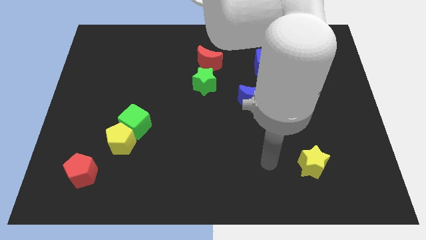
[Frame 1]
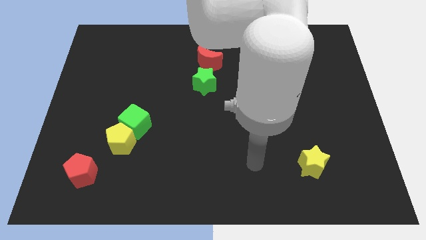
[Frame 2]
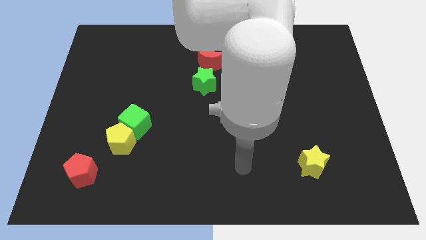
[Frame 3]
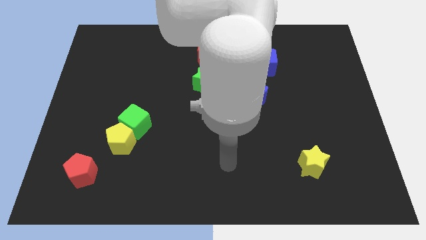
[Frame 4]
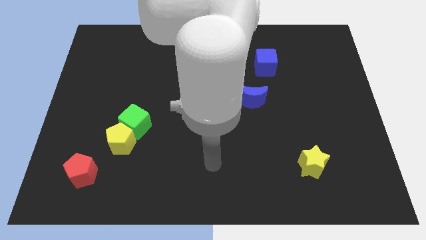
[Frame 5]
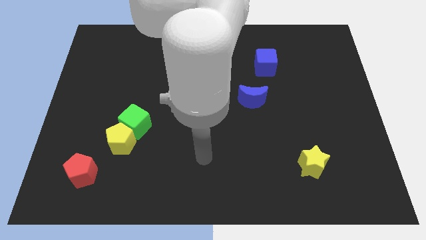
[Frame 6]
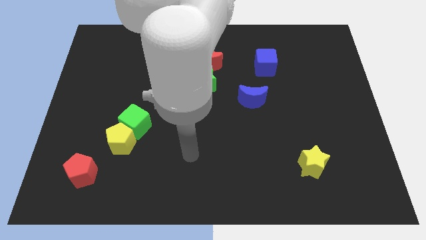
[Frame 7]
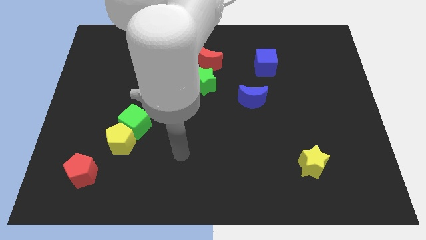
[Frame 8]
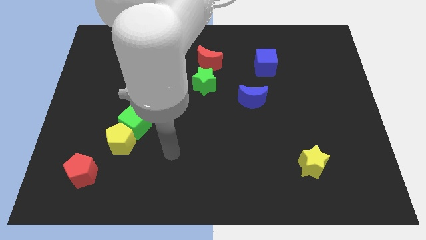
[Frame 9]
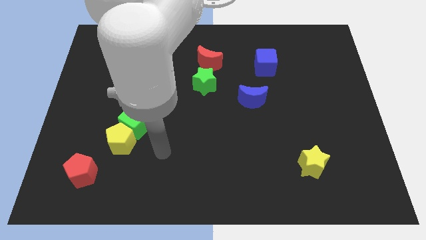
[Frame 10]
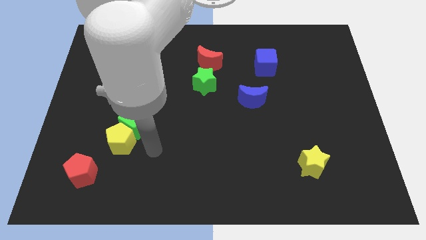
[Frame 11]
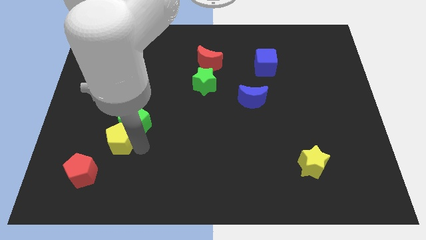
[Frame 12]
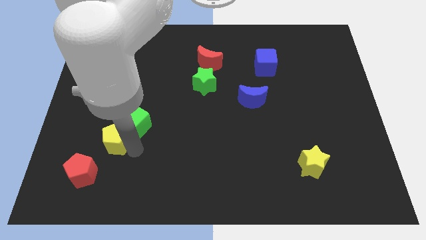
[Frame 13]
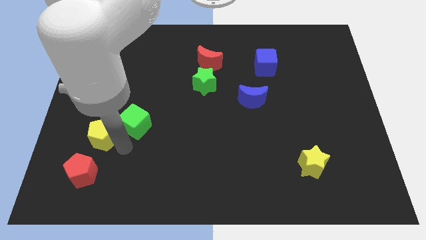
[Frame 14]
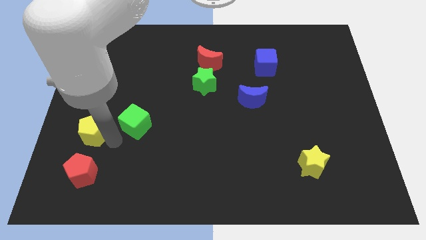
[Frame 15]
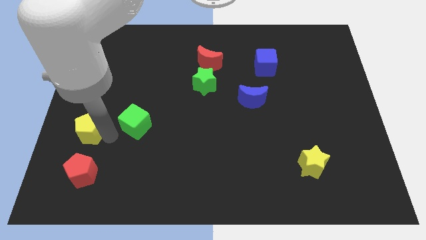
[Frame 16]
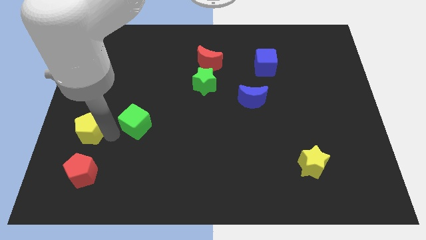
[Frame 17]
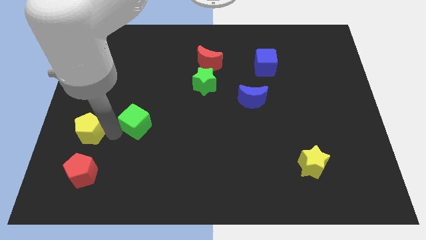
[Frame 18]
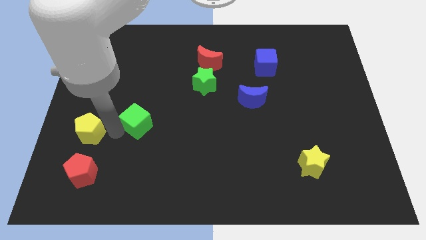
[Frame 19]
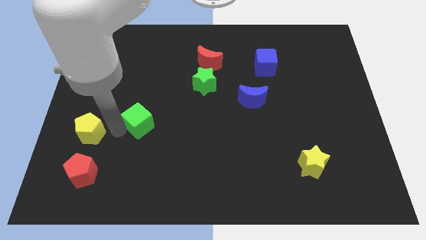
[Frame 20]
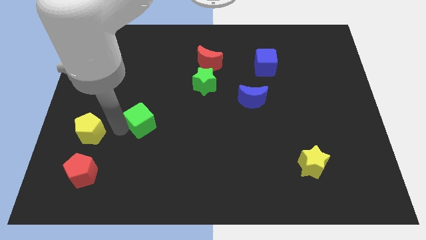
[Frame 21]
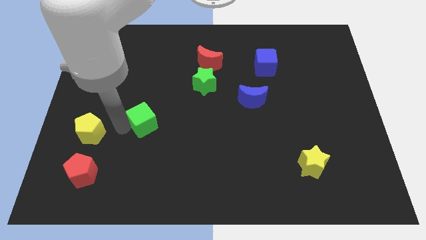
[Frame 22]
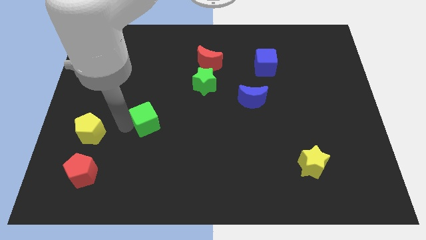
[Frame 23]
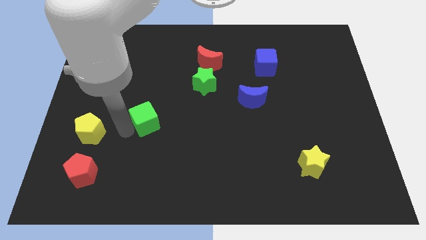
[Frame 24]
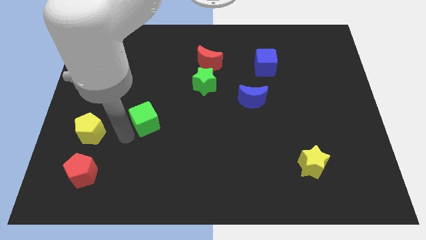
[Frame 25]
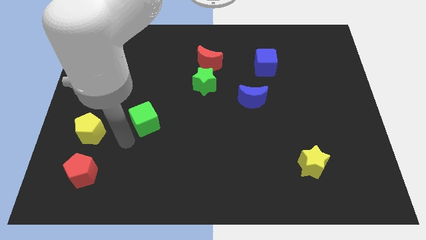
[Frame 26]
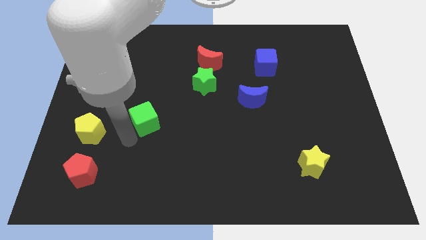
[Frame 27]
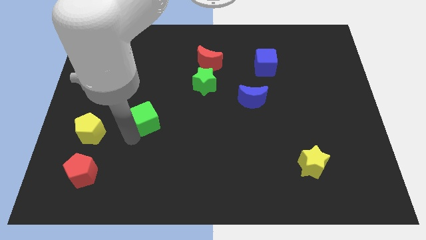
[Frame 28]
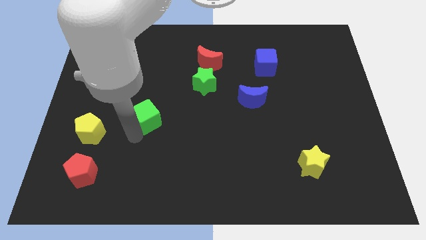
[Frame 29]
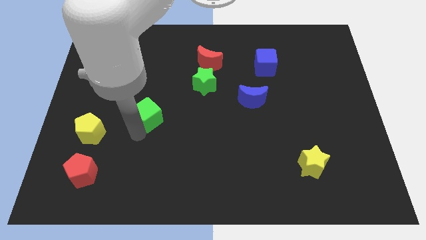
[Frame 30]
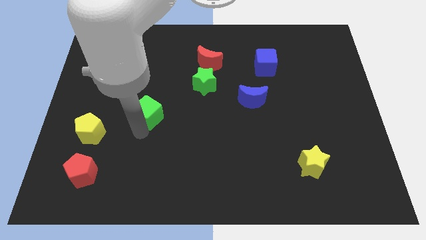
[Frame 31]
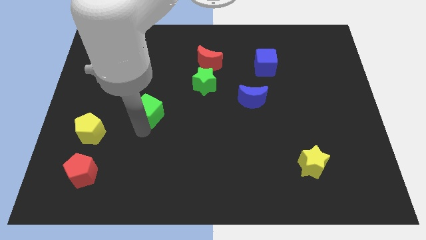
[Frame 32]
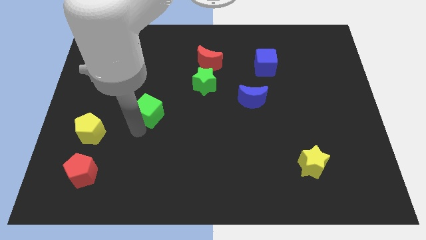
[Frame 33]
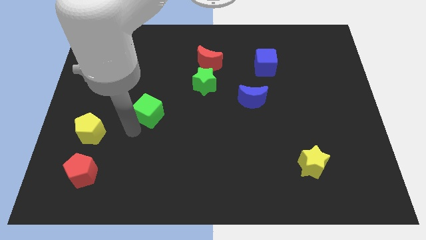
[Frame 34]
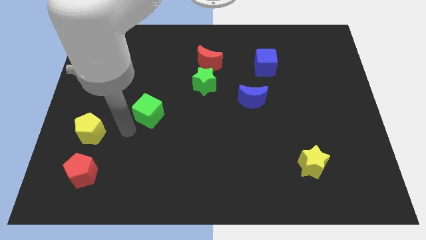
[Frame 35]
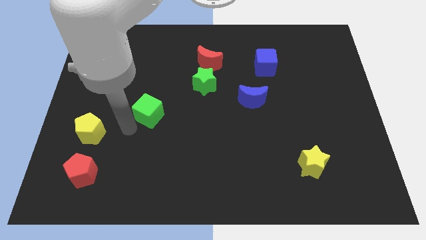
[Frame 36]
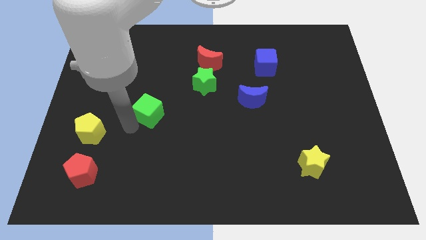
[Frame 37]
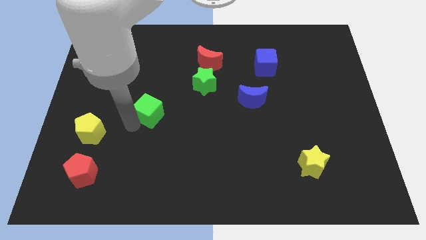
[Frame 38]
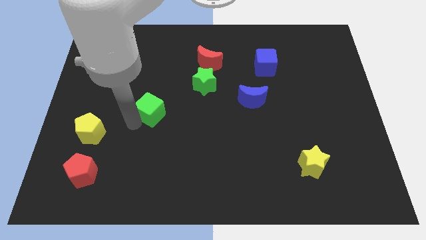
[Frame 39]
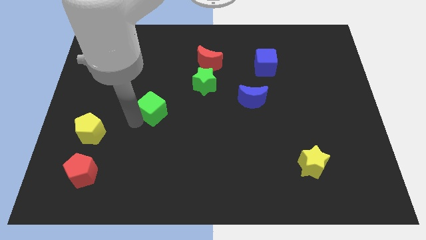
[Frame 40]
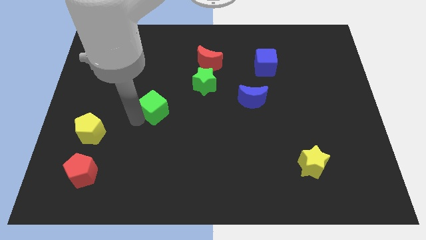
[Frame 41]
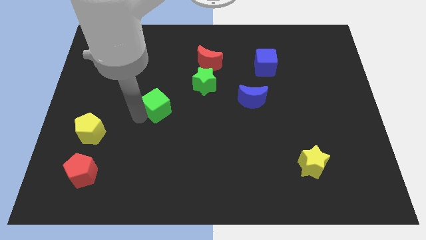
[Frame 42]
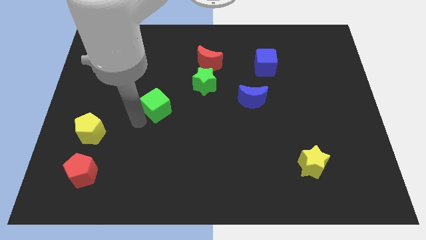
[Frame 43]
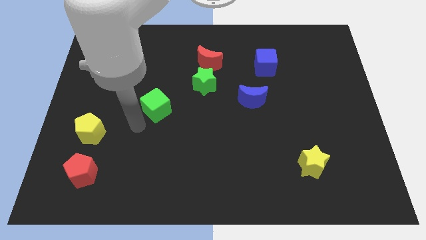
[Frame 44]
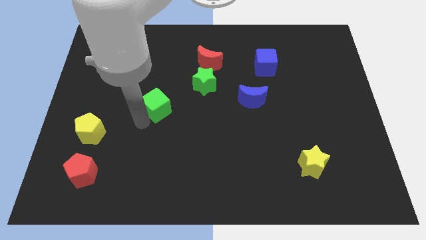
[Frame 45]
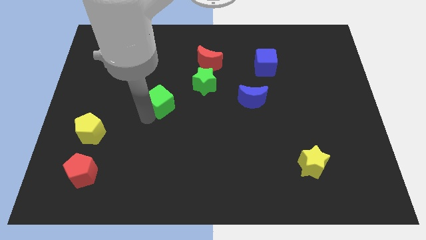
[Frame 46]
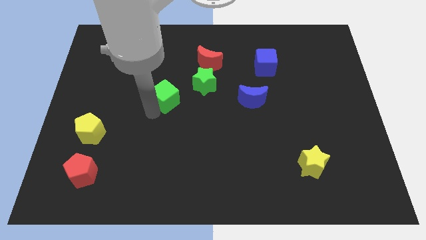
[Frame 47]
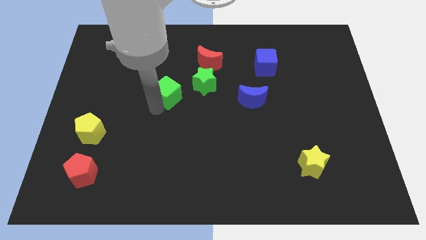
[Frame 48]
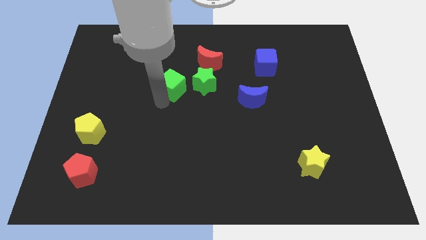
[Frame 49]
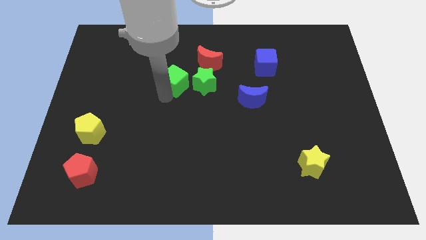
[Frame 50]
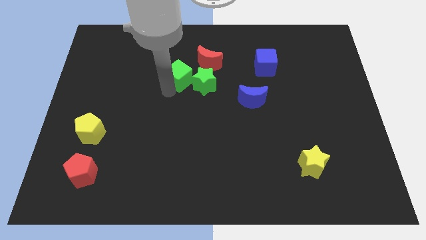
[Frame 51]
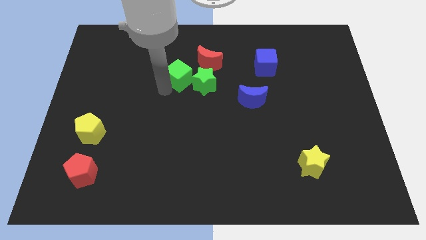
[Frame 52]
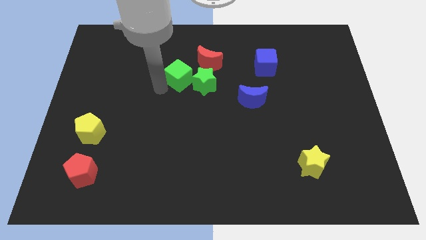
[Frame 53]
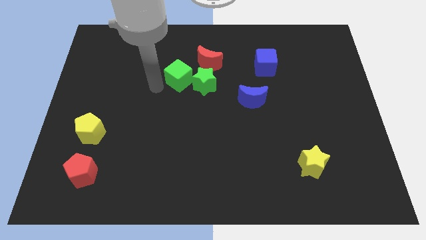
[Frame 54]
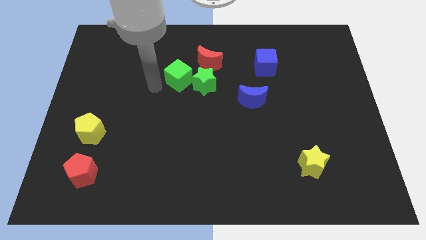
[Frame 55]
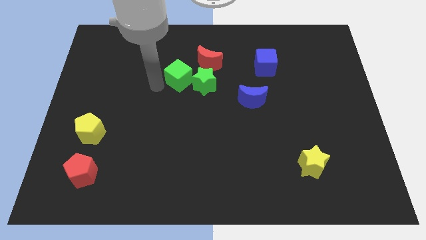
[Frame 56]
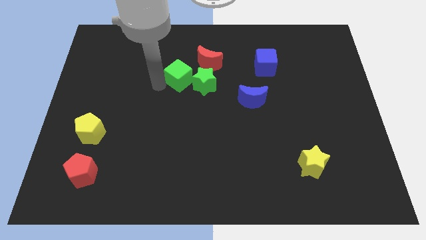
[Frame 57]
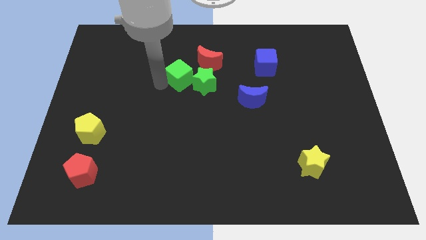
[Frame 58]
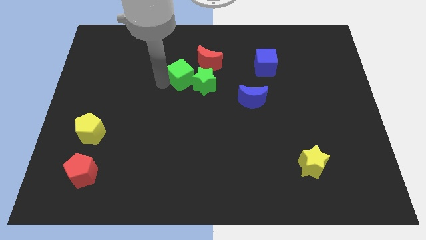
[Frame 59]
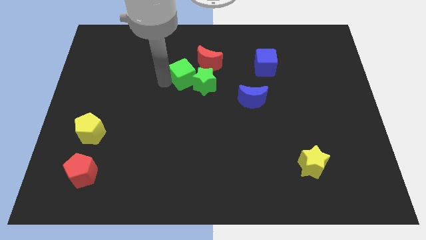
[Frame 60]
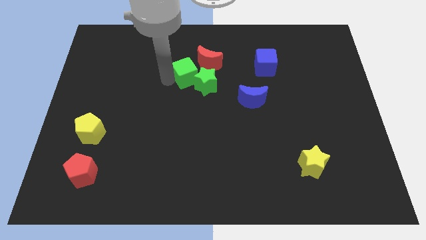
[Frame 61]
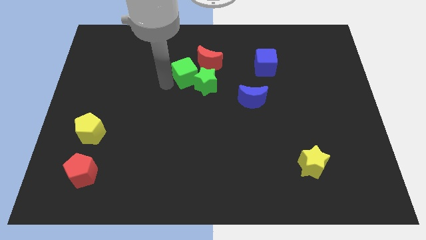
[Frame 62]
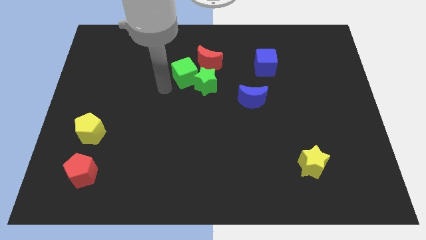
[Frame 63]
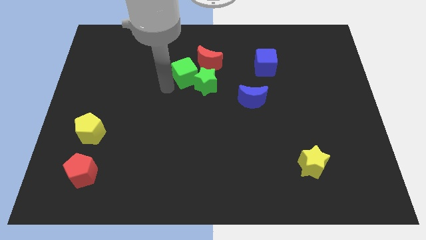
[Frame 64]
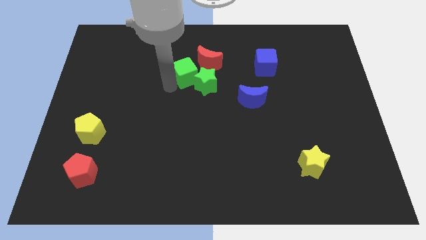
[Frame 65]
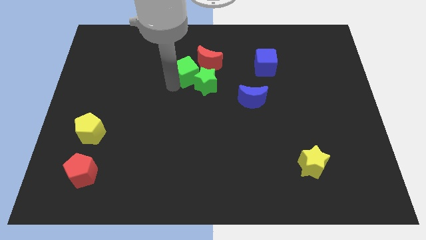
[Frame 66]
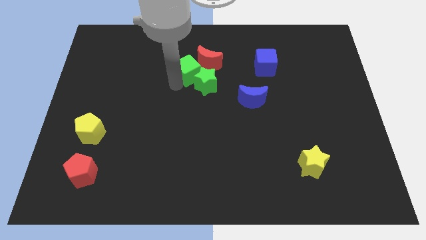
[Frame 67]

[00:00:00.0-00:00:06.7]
slide the green cube to the red moon
